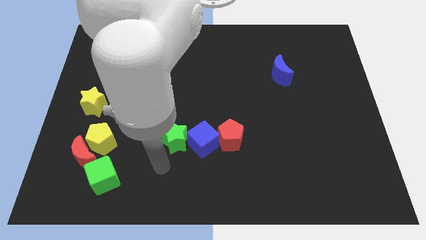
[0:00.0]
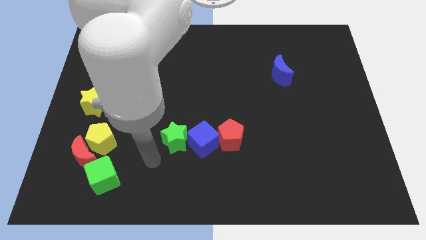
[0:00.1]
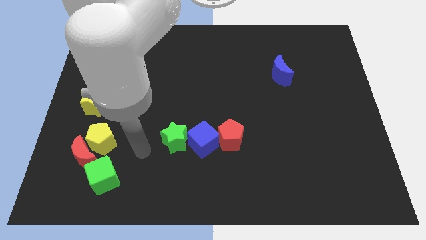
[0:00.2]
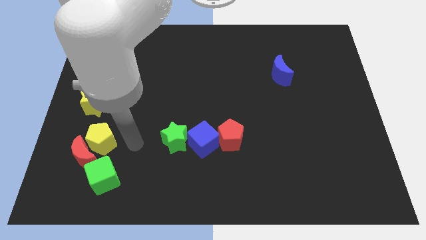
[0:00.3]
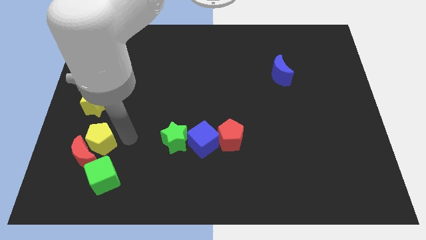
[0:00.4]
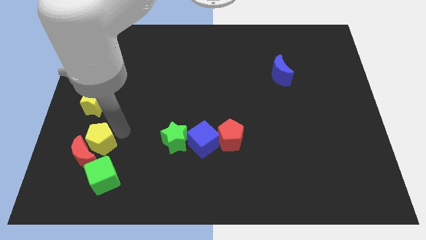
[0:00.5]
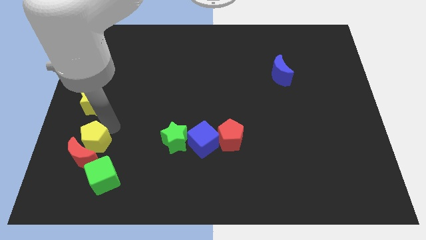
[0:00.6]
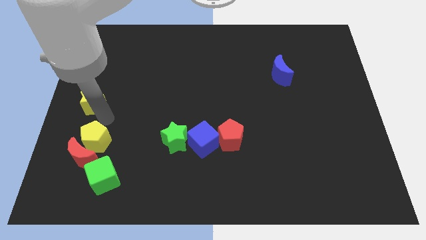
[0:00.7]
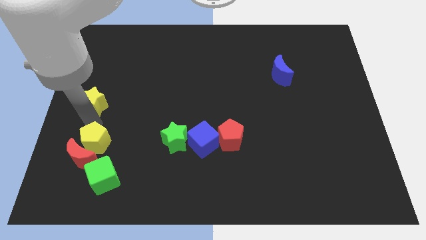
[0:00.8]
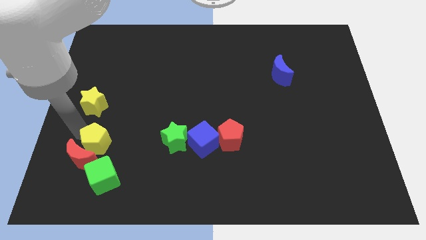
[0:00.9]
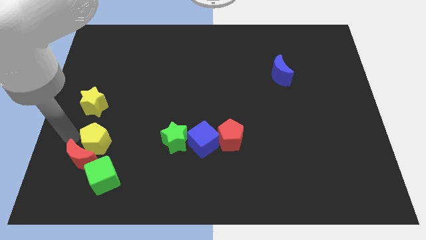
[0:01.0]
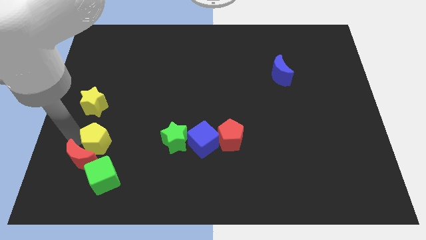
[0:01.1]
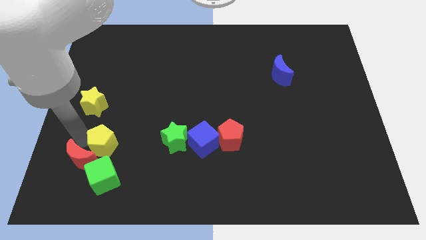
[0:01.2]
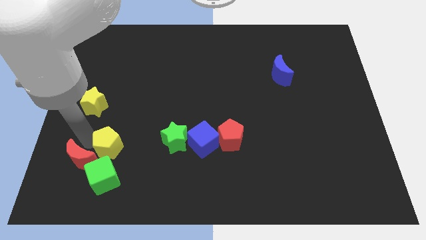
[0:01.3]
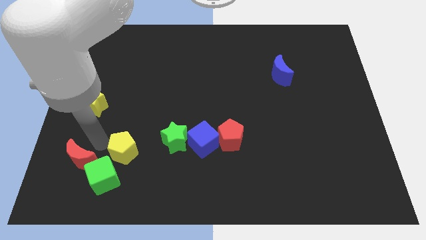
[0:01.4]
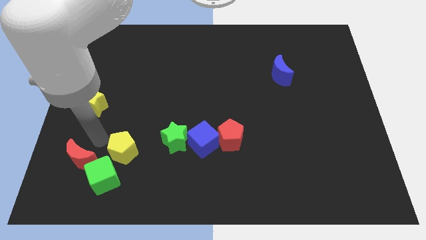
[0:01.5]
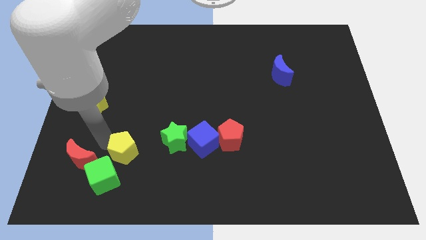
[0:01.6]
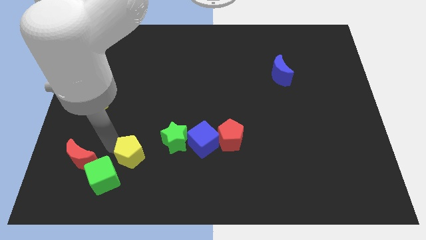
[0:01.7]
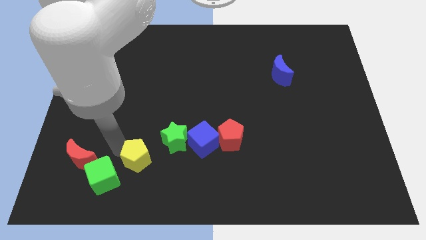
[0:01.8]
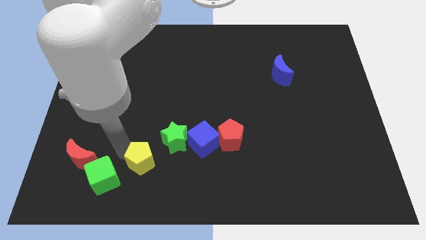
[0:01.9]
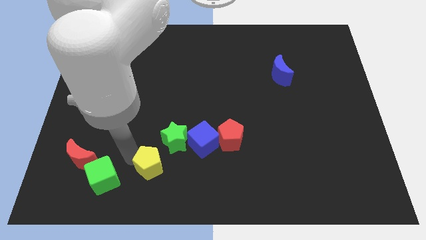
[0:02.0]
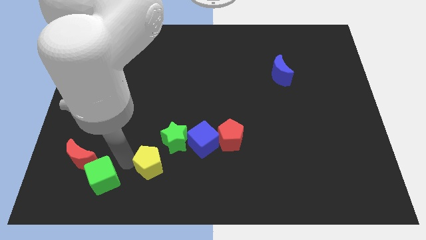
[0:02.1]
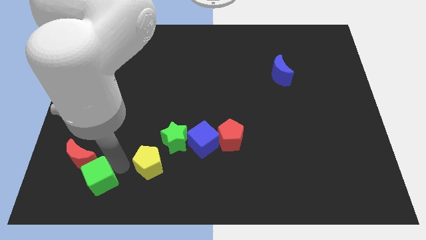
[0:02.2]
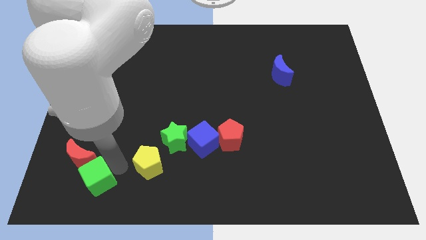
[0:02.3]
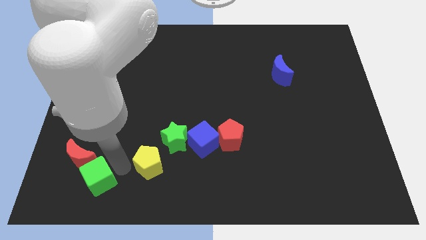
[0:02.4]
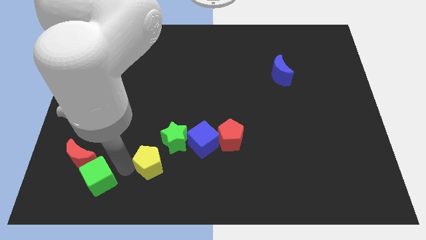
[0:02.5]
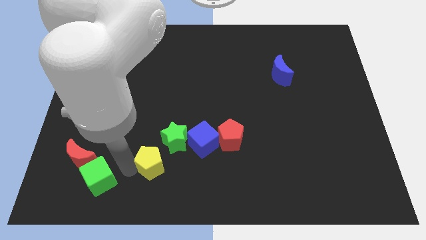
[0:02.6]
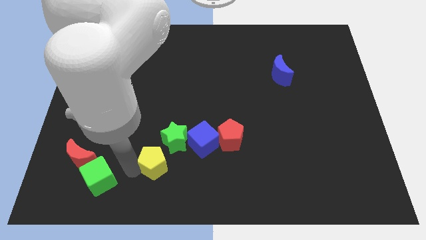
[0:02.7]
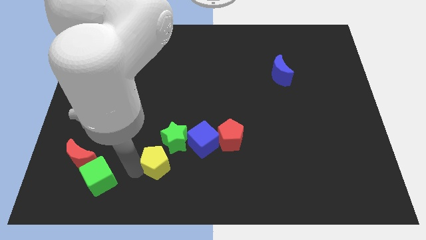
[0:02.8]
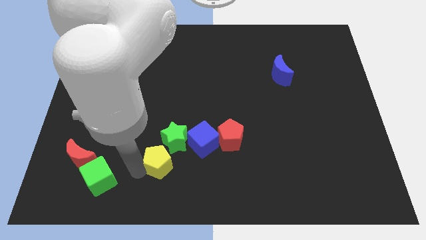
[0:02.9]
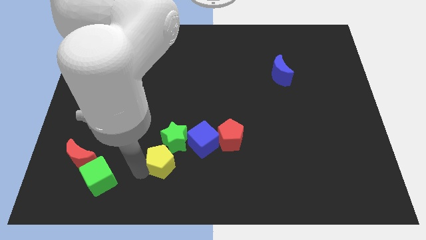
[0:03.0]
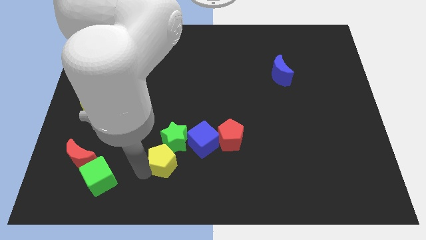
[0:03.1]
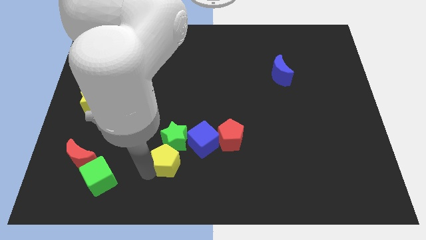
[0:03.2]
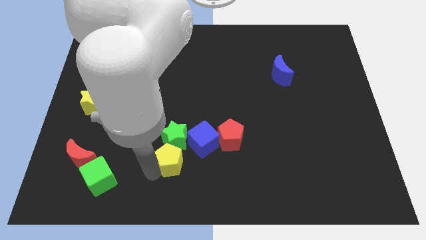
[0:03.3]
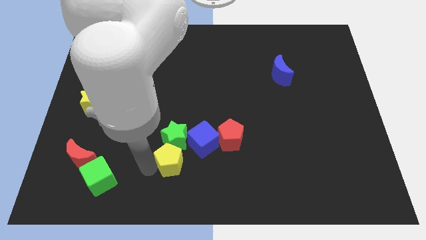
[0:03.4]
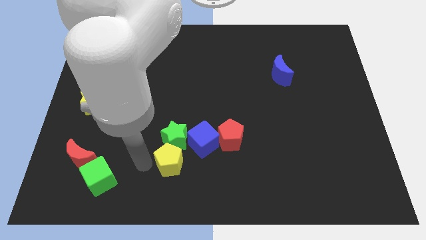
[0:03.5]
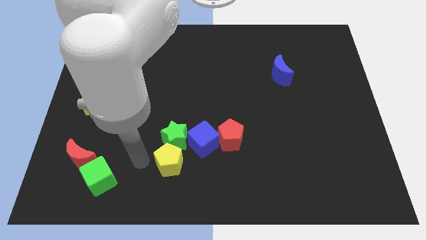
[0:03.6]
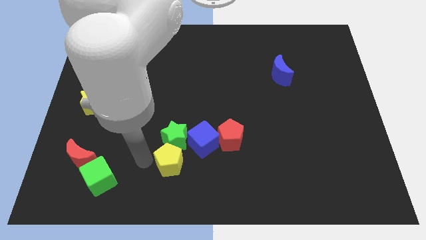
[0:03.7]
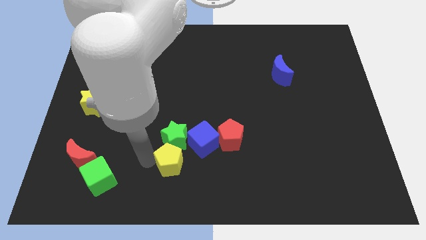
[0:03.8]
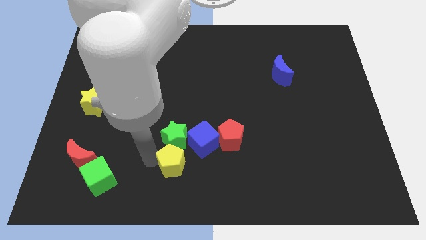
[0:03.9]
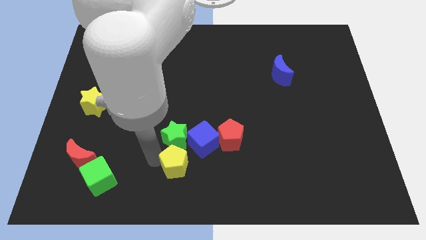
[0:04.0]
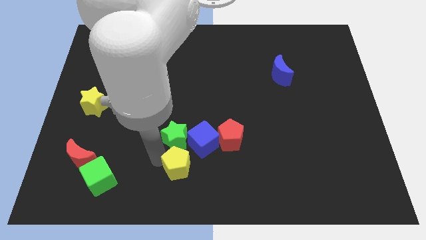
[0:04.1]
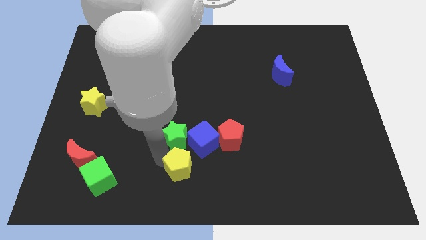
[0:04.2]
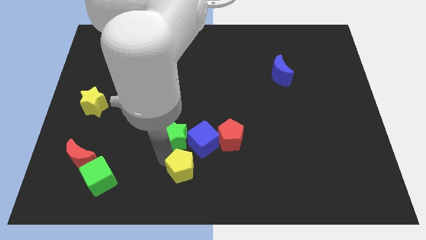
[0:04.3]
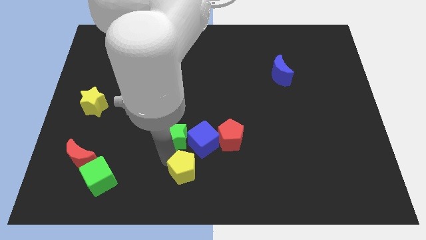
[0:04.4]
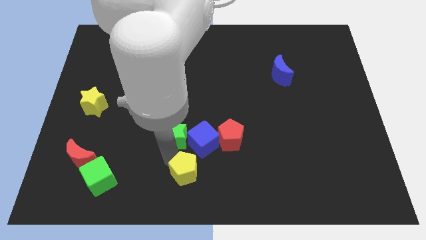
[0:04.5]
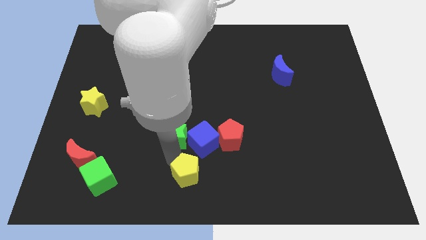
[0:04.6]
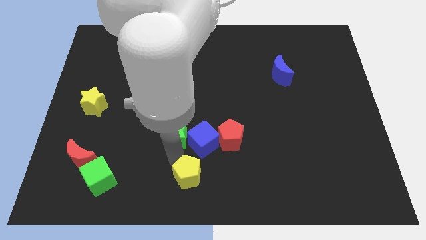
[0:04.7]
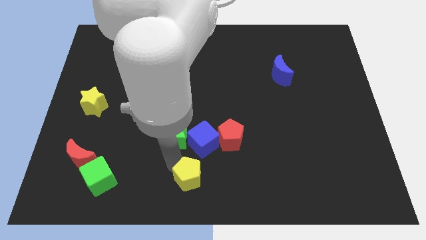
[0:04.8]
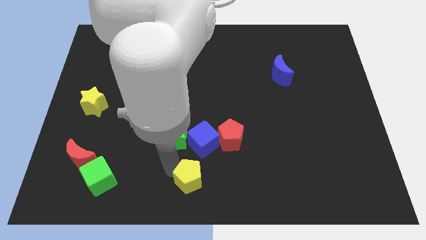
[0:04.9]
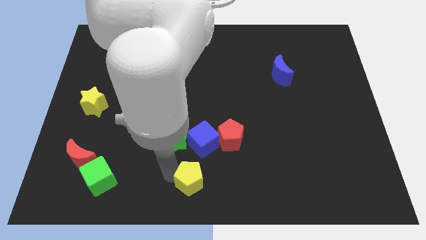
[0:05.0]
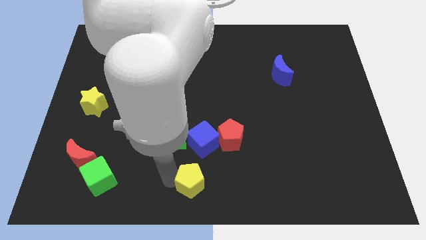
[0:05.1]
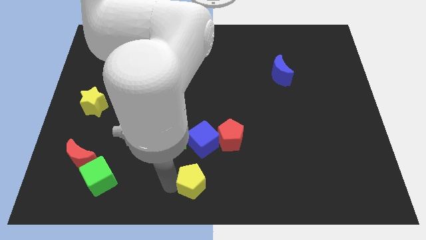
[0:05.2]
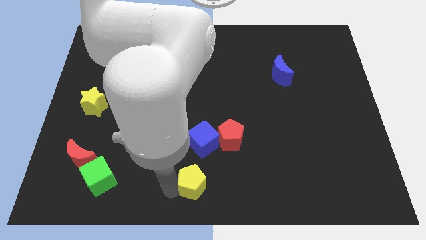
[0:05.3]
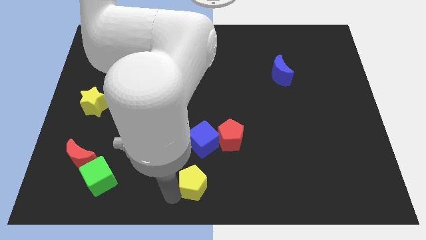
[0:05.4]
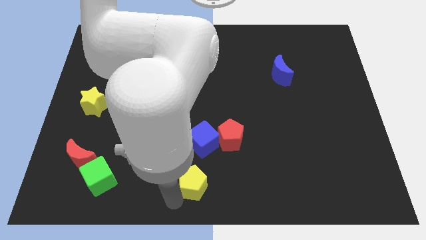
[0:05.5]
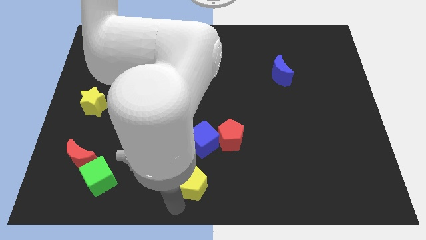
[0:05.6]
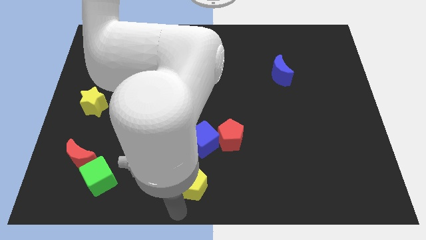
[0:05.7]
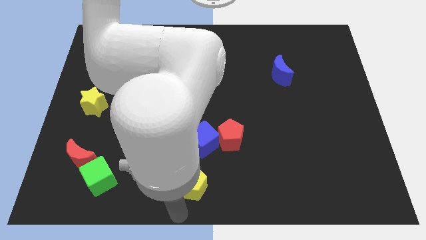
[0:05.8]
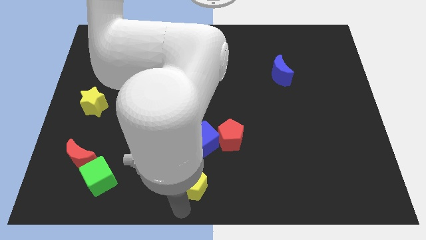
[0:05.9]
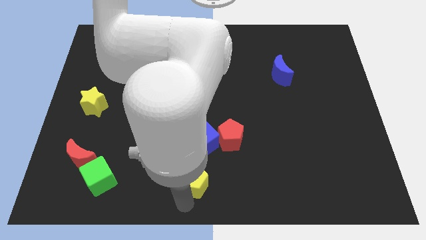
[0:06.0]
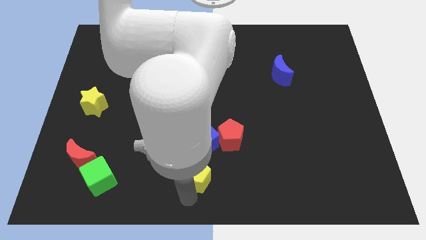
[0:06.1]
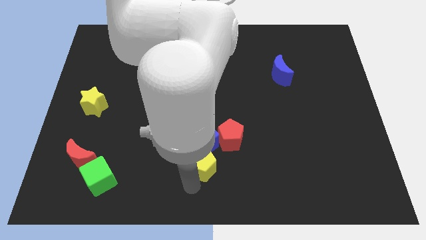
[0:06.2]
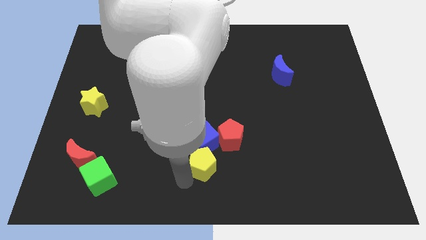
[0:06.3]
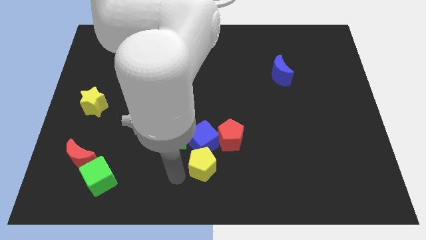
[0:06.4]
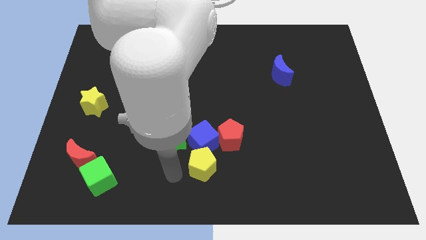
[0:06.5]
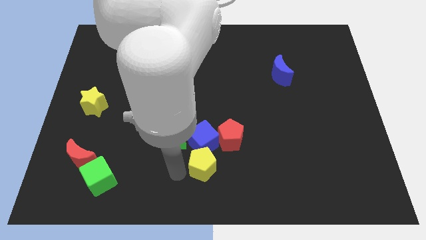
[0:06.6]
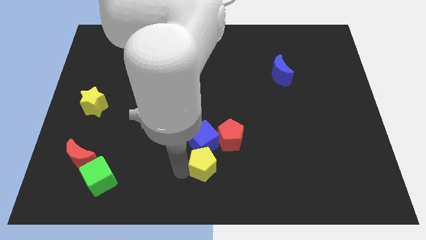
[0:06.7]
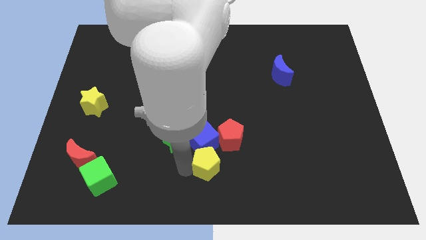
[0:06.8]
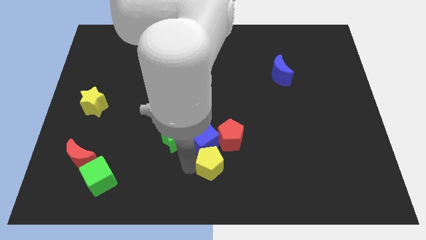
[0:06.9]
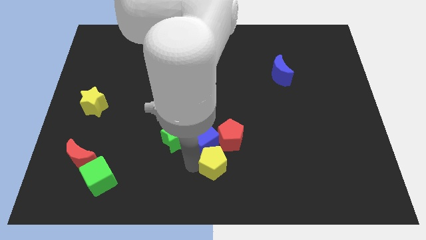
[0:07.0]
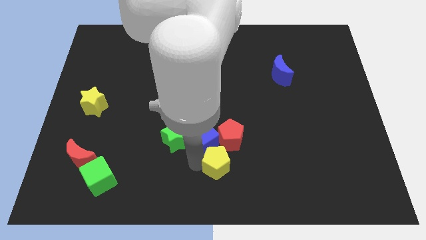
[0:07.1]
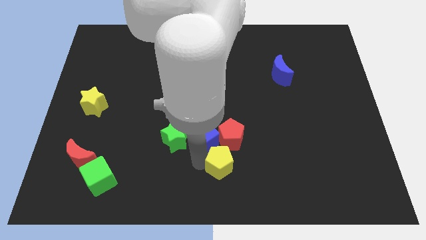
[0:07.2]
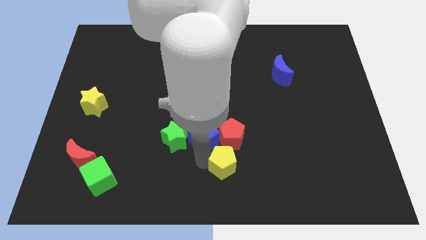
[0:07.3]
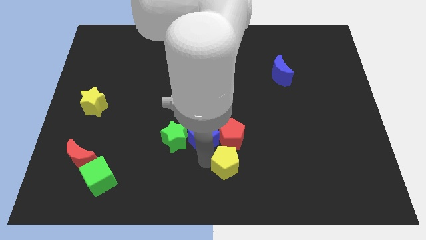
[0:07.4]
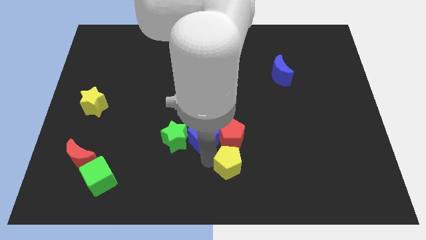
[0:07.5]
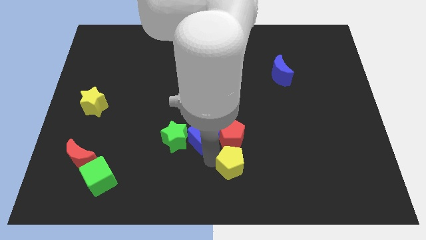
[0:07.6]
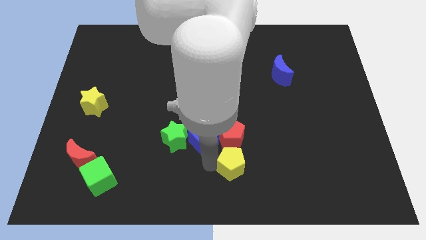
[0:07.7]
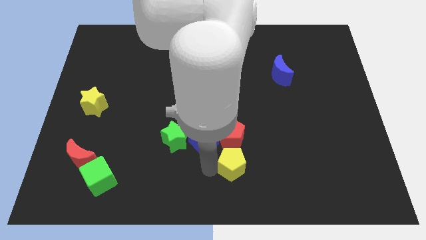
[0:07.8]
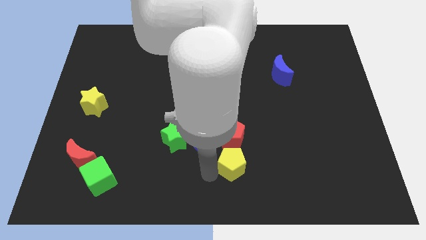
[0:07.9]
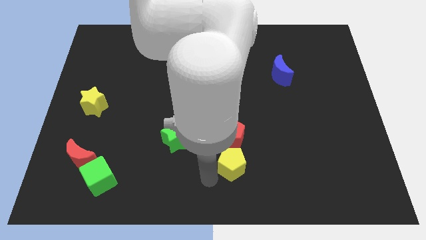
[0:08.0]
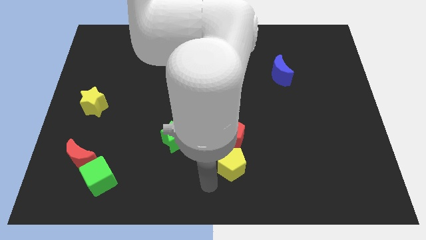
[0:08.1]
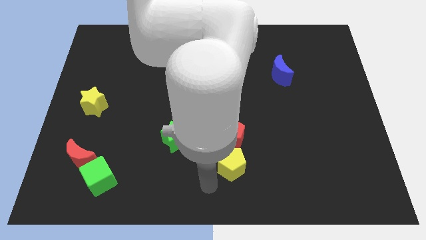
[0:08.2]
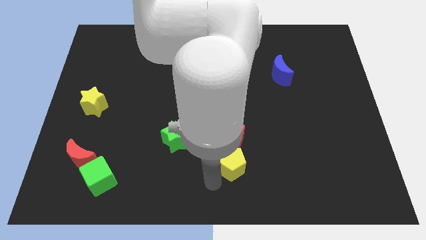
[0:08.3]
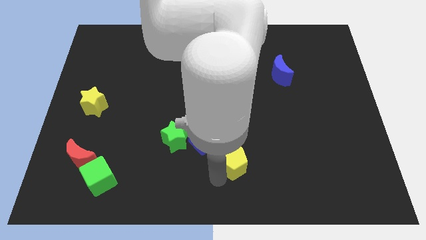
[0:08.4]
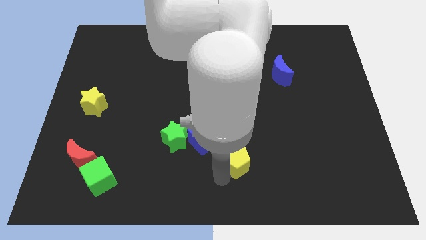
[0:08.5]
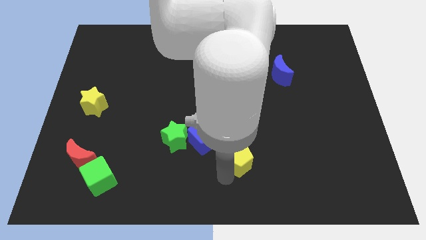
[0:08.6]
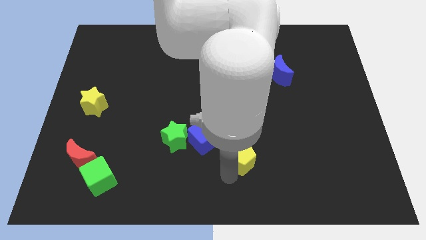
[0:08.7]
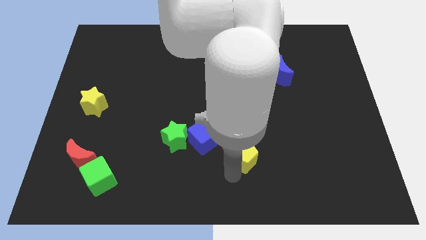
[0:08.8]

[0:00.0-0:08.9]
push the yellow pentagon to the right side of the blue cube
